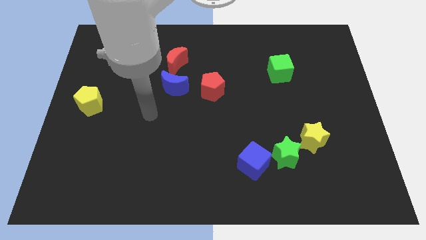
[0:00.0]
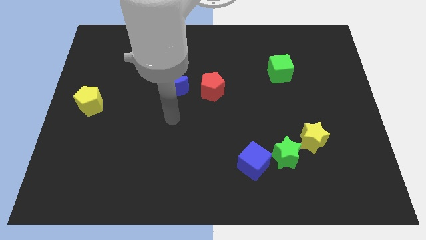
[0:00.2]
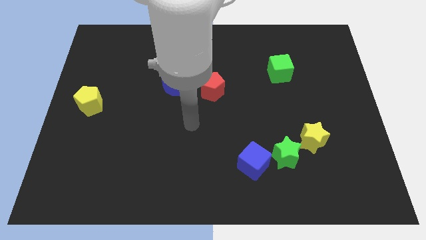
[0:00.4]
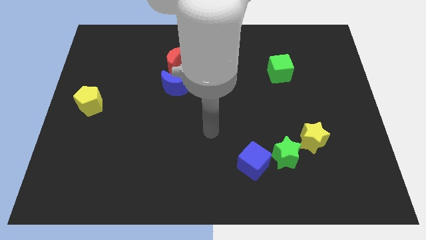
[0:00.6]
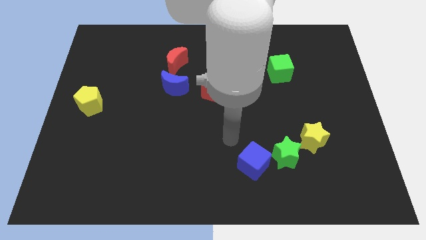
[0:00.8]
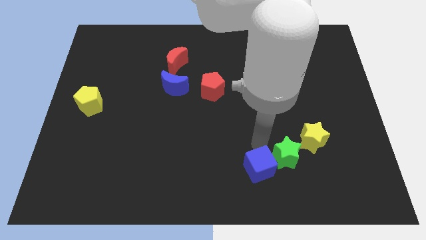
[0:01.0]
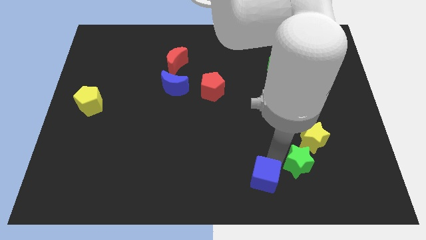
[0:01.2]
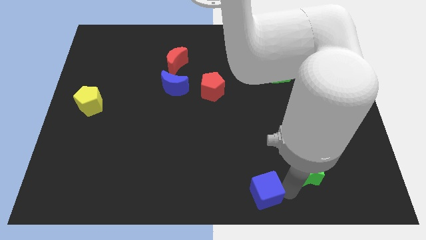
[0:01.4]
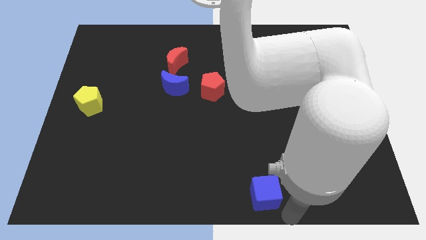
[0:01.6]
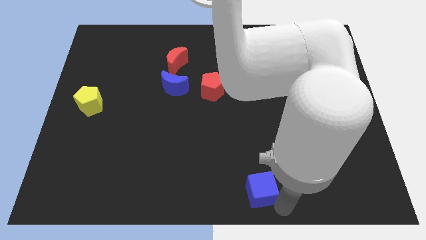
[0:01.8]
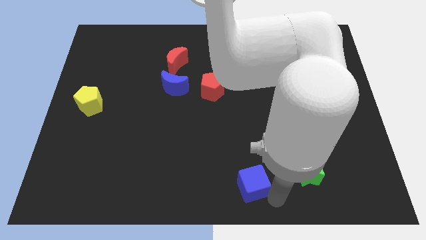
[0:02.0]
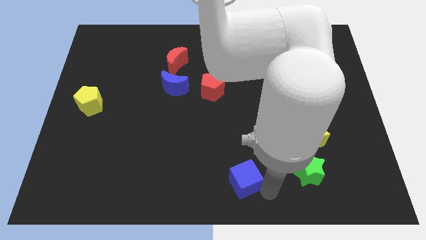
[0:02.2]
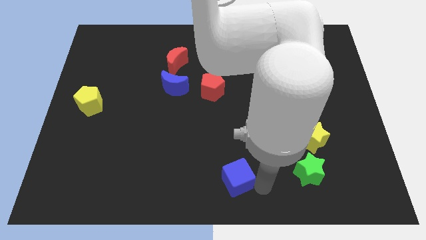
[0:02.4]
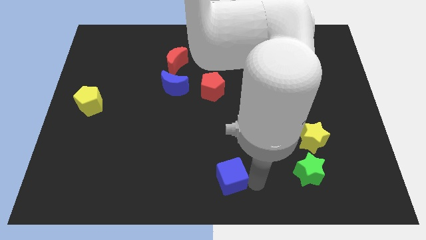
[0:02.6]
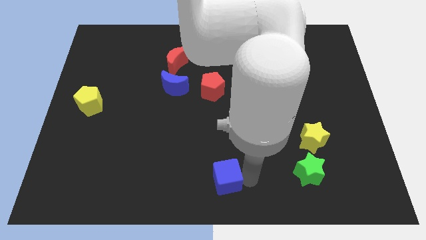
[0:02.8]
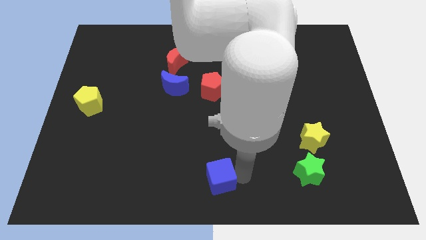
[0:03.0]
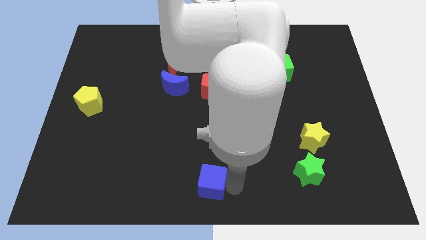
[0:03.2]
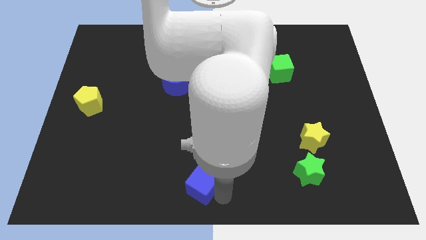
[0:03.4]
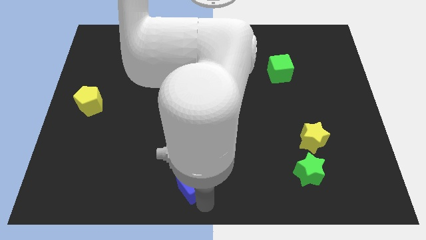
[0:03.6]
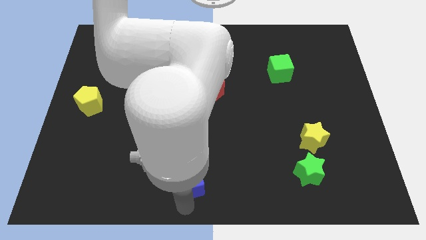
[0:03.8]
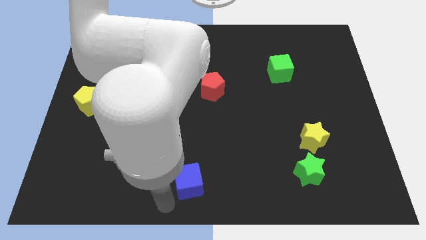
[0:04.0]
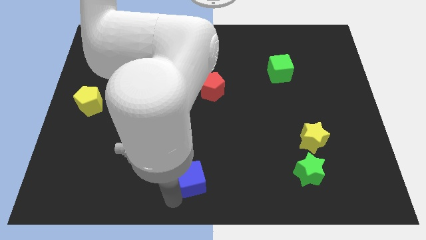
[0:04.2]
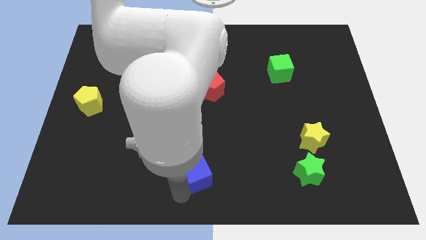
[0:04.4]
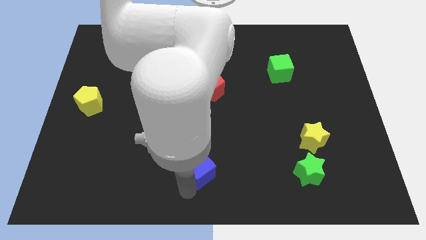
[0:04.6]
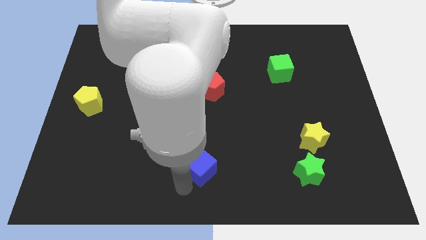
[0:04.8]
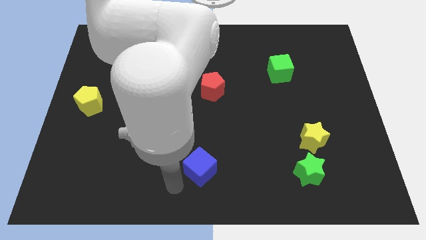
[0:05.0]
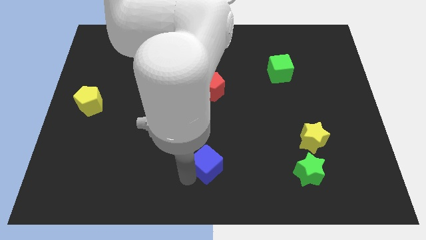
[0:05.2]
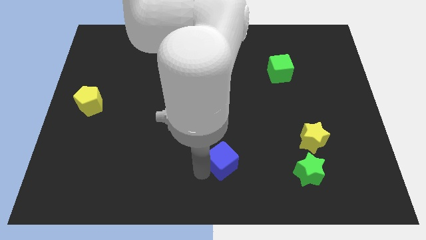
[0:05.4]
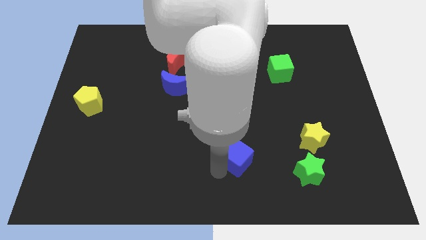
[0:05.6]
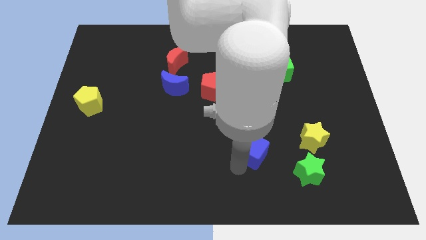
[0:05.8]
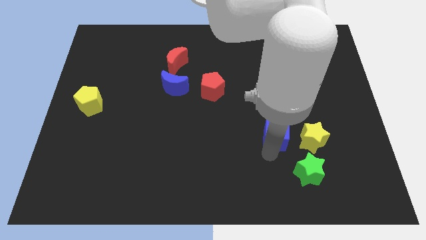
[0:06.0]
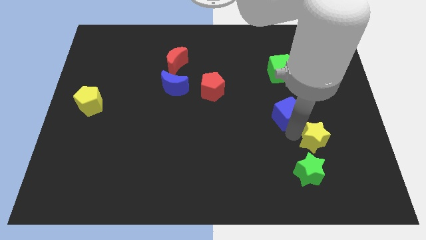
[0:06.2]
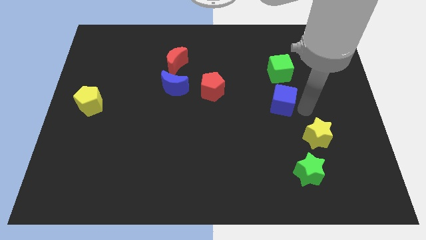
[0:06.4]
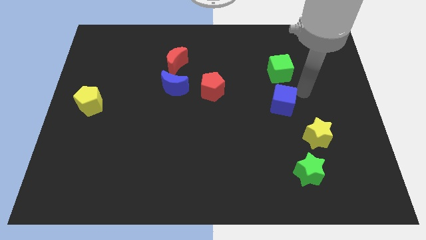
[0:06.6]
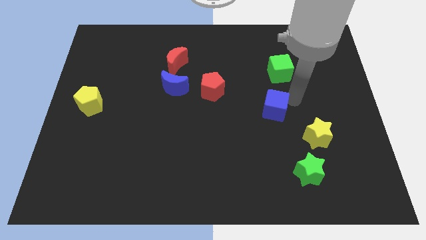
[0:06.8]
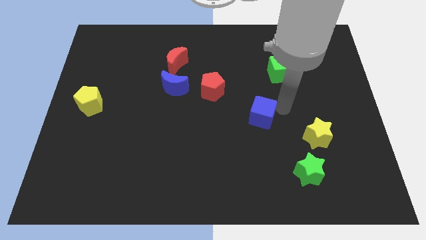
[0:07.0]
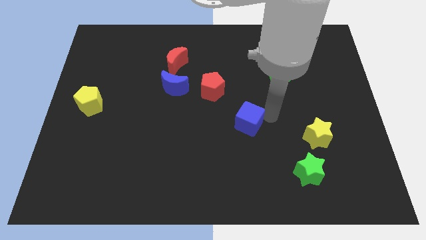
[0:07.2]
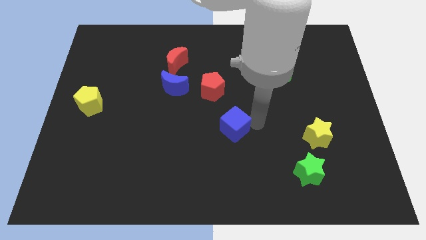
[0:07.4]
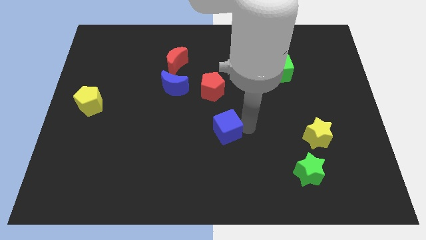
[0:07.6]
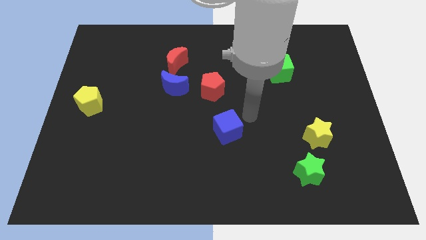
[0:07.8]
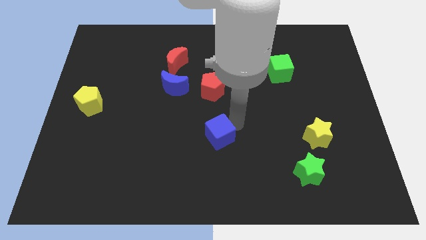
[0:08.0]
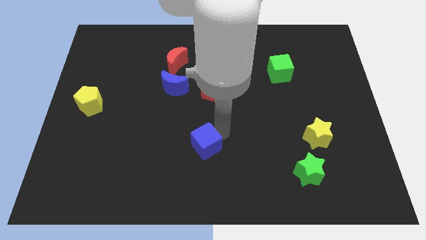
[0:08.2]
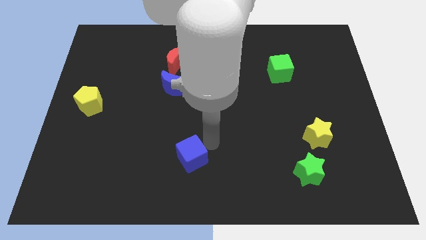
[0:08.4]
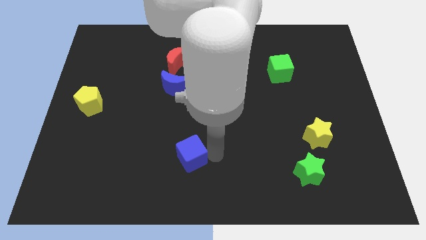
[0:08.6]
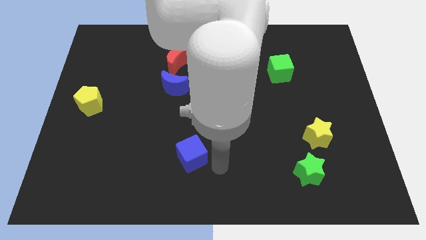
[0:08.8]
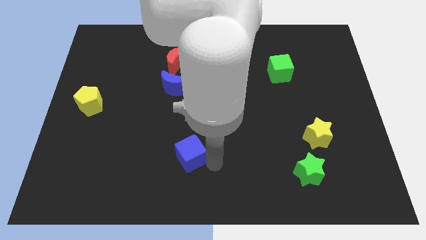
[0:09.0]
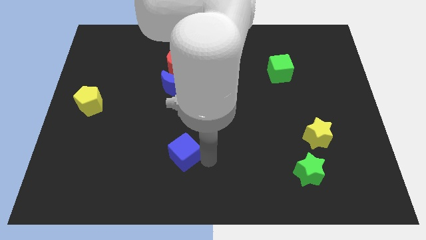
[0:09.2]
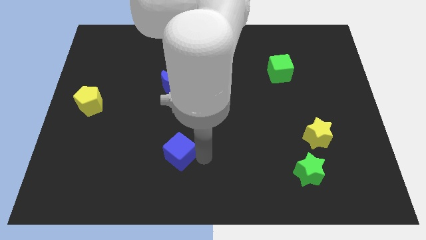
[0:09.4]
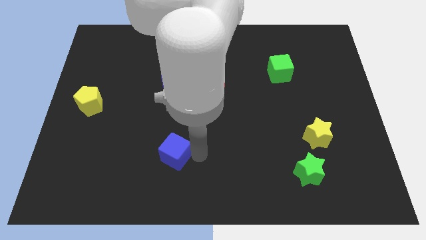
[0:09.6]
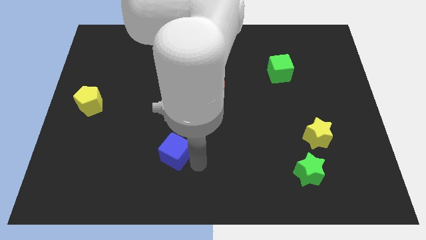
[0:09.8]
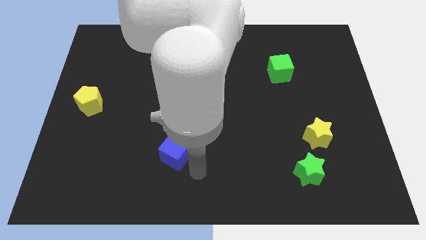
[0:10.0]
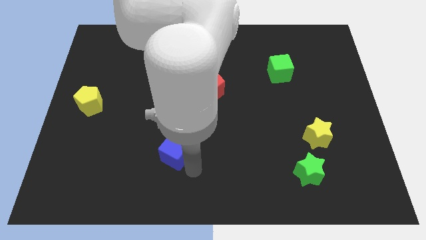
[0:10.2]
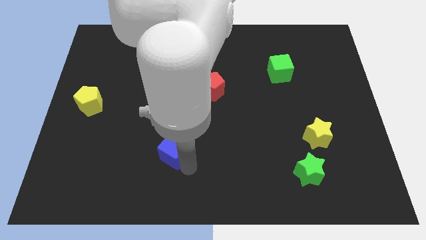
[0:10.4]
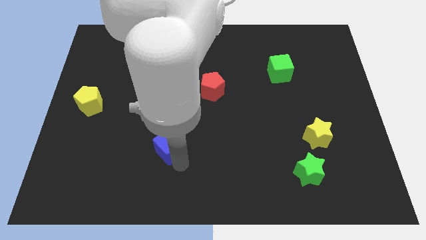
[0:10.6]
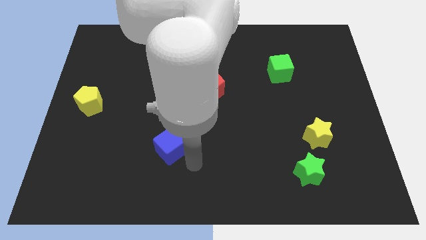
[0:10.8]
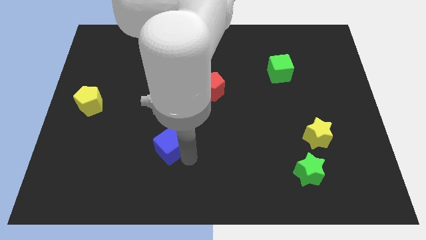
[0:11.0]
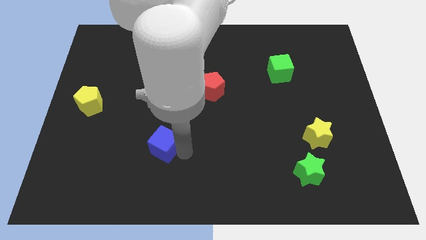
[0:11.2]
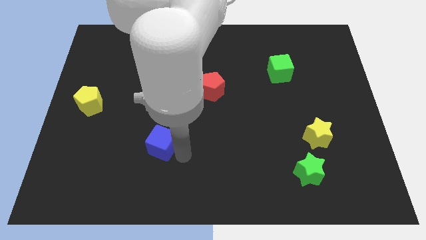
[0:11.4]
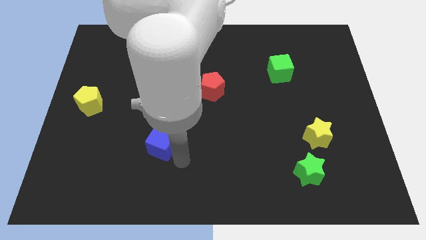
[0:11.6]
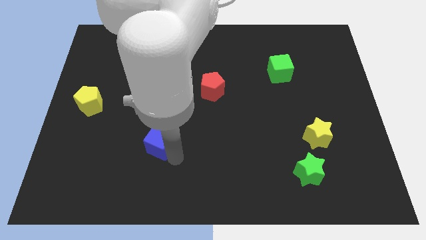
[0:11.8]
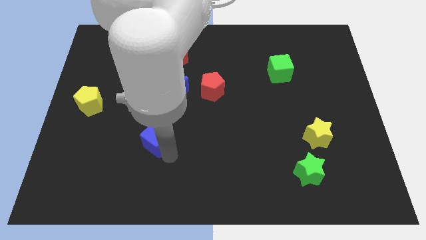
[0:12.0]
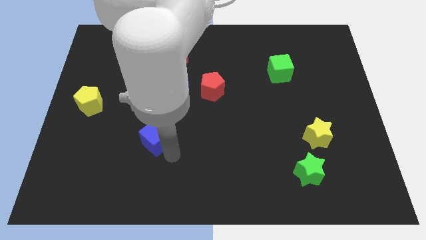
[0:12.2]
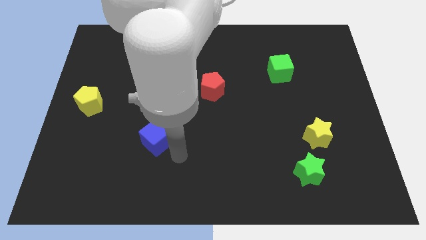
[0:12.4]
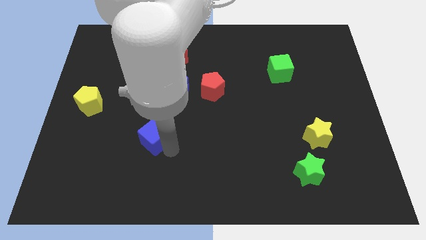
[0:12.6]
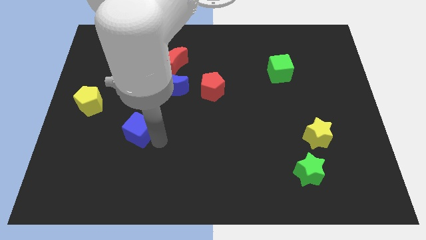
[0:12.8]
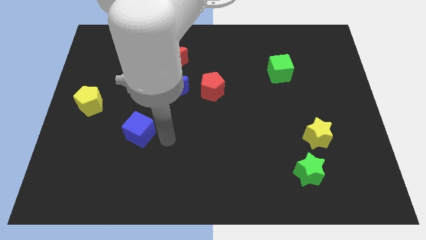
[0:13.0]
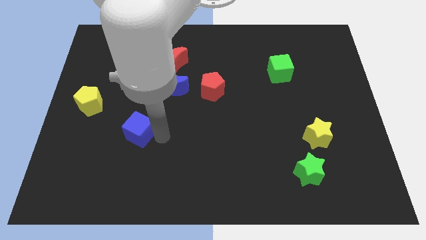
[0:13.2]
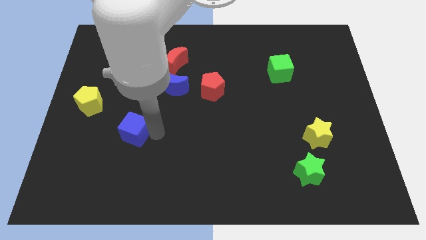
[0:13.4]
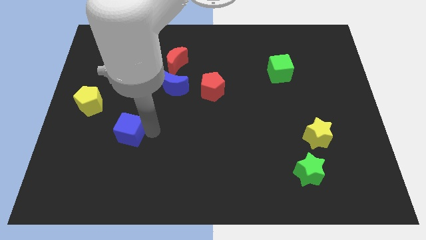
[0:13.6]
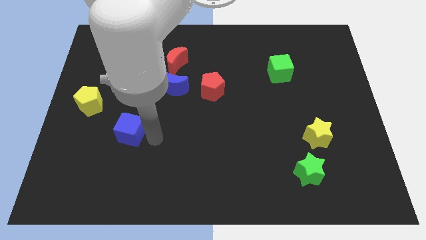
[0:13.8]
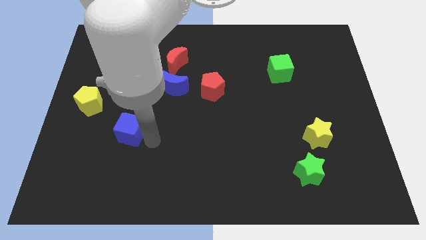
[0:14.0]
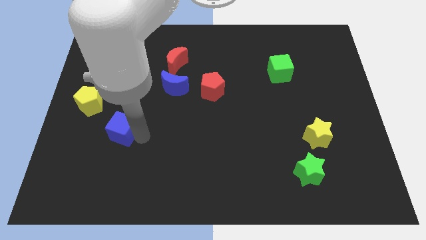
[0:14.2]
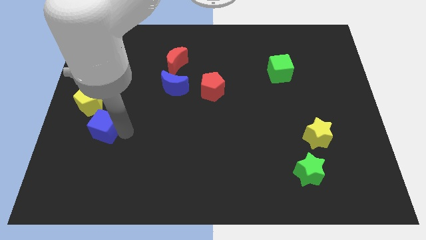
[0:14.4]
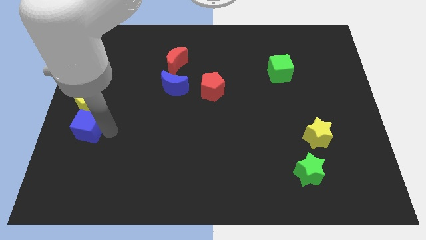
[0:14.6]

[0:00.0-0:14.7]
put the blue cube to the left side
